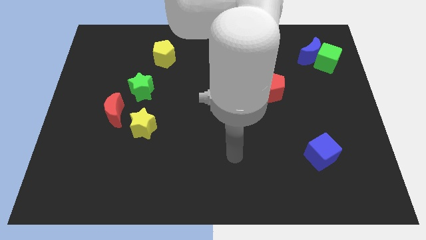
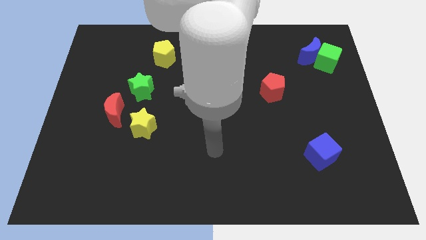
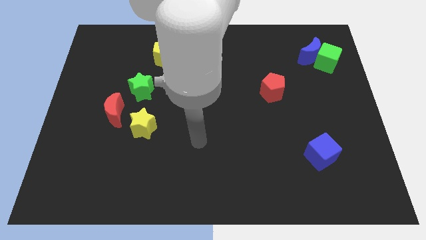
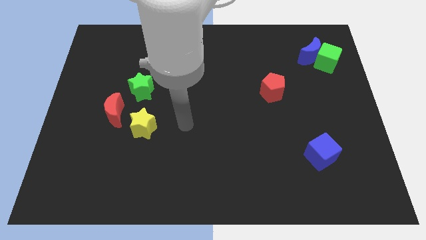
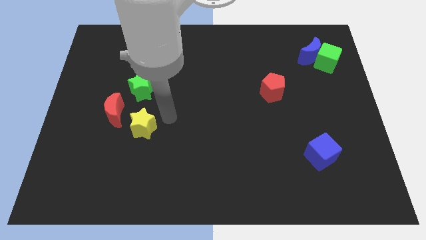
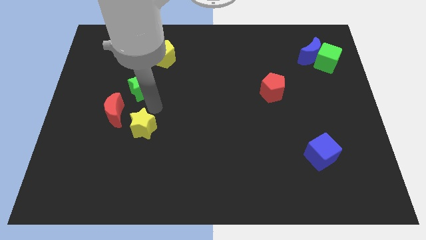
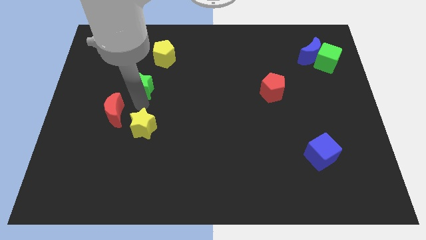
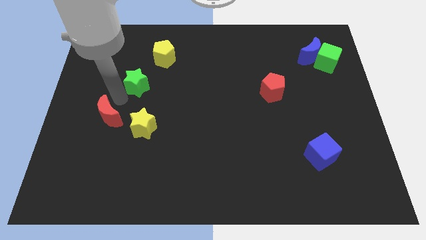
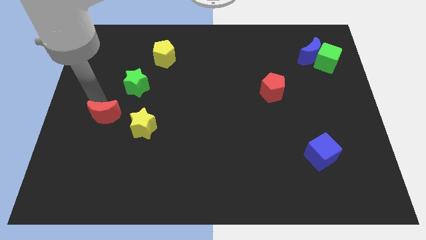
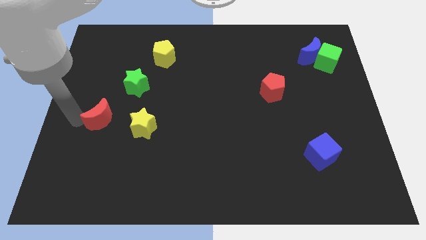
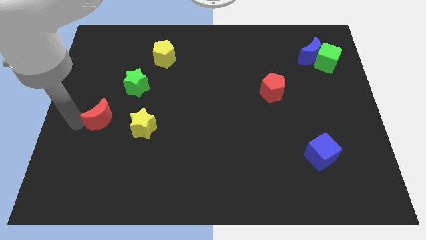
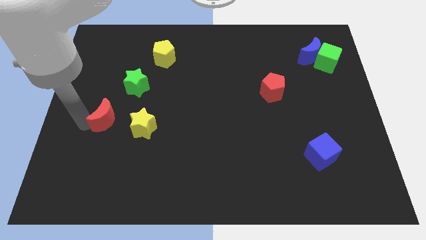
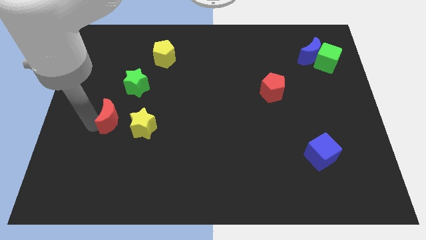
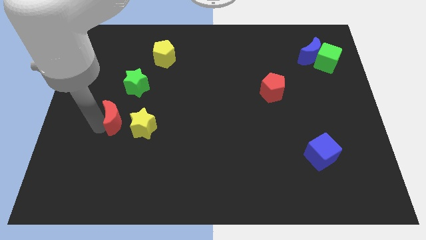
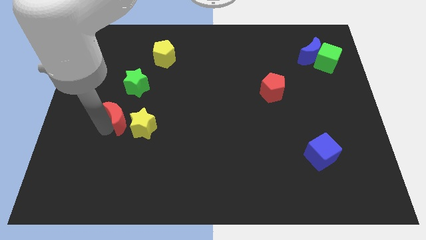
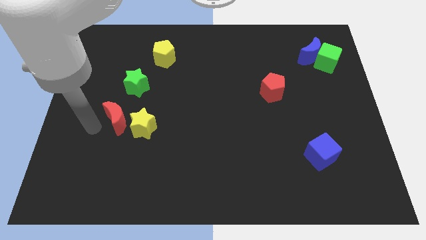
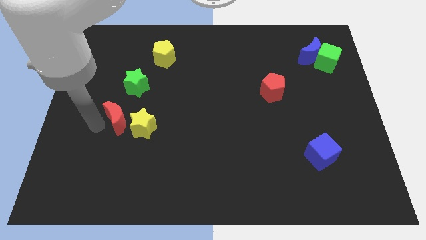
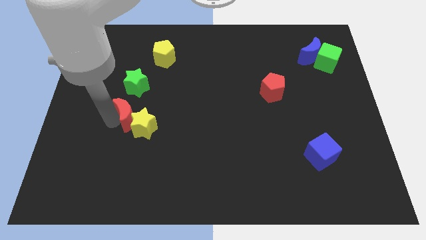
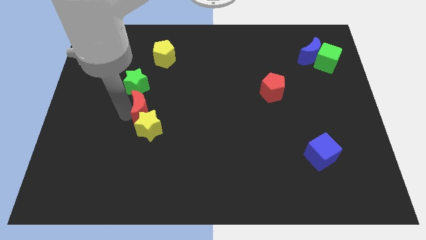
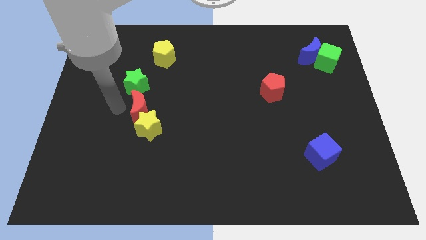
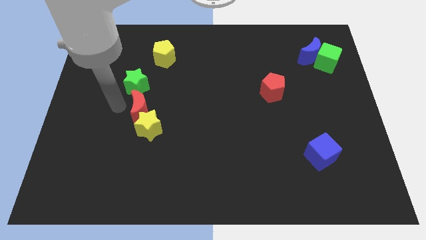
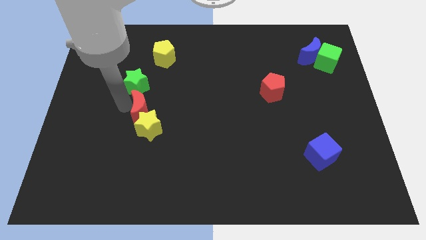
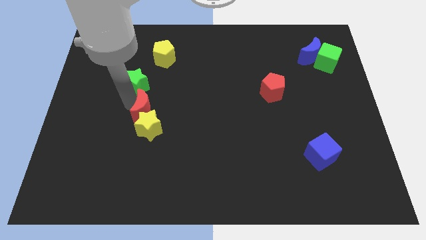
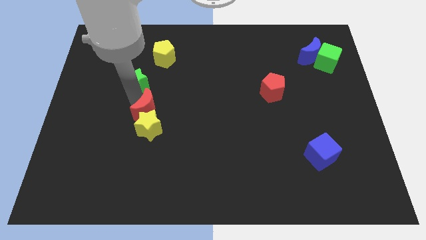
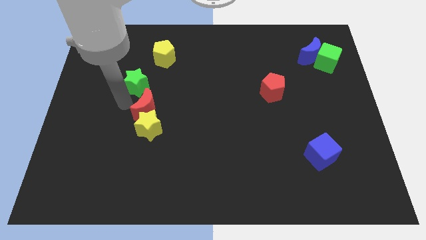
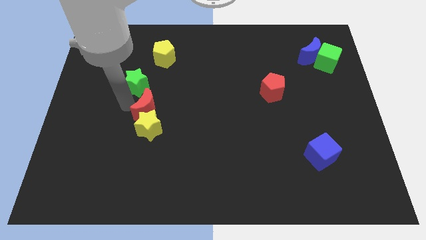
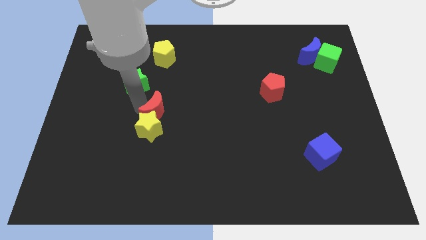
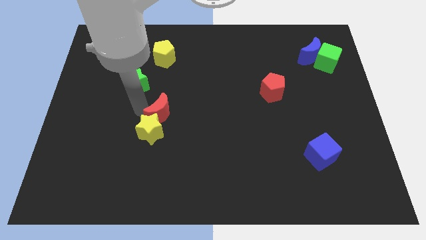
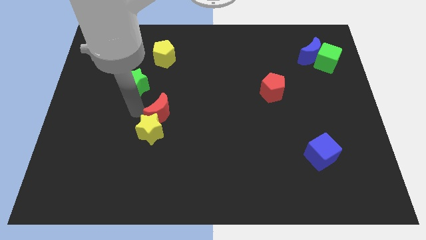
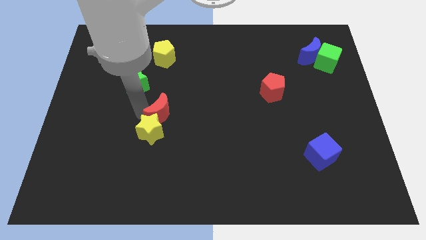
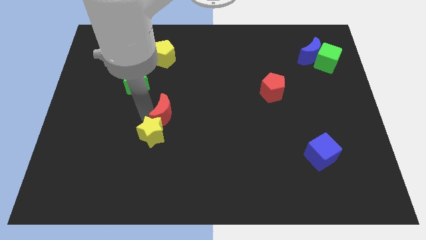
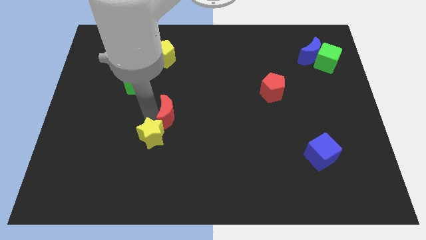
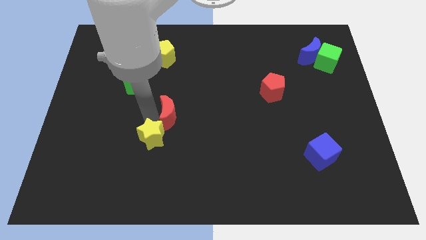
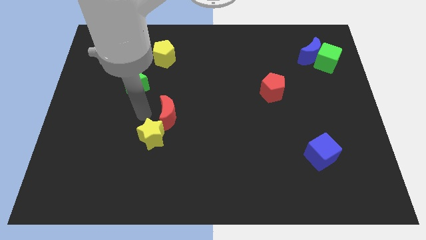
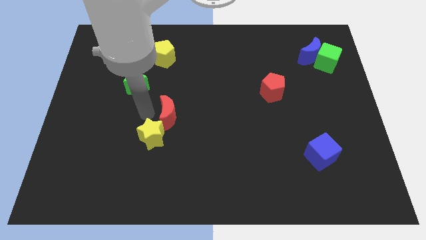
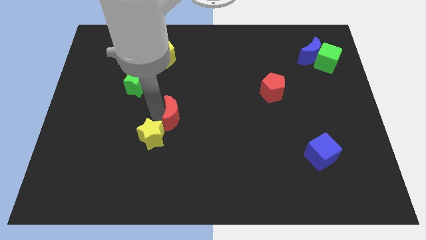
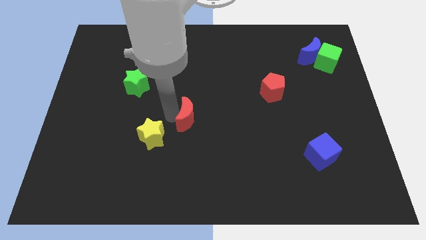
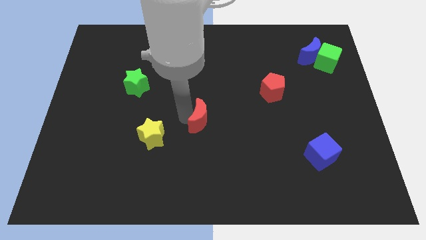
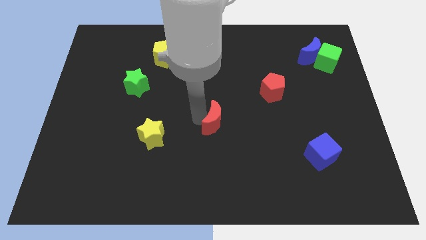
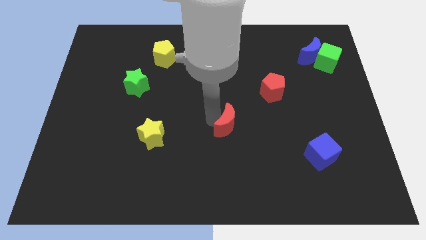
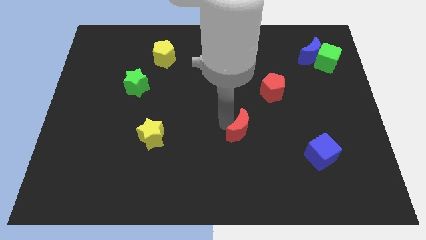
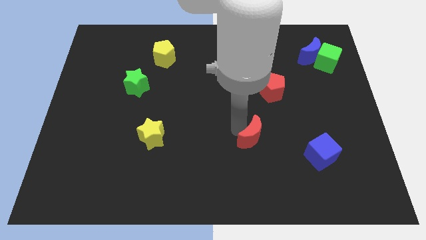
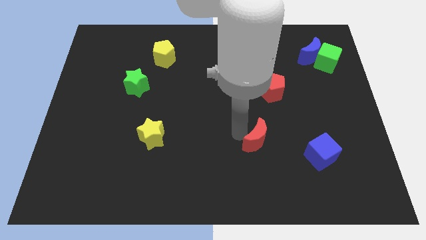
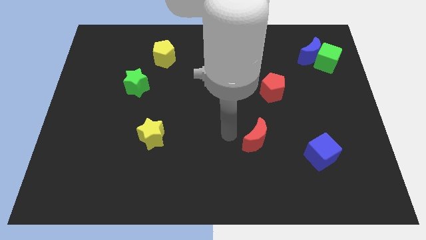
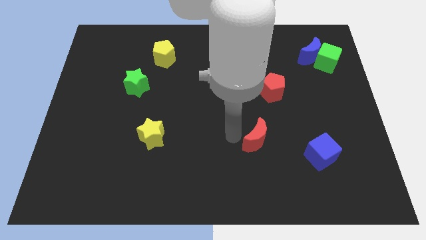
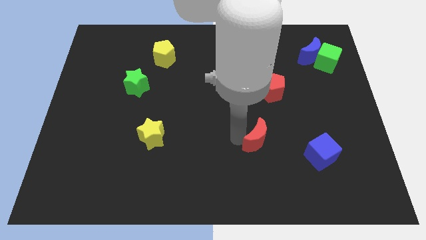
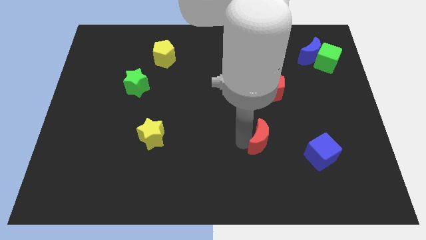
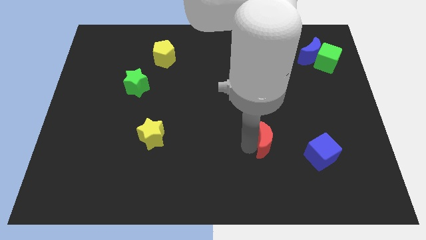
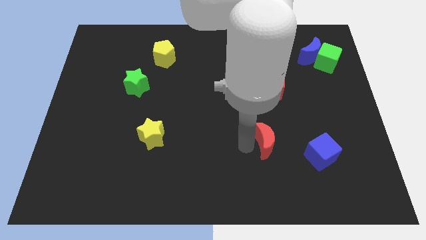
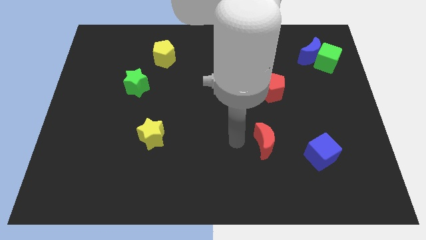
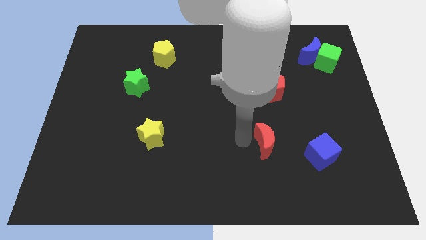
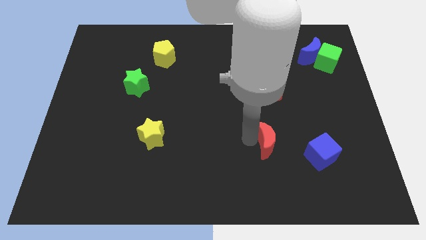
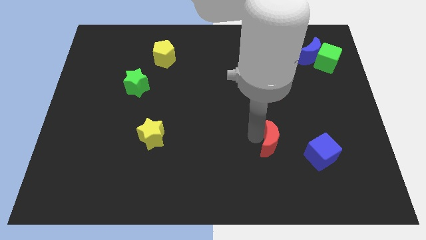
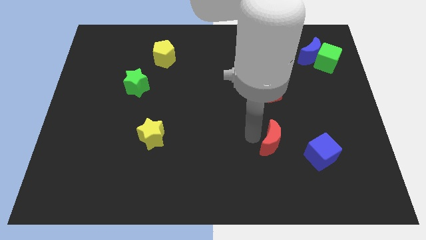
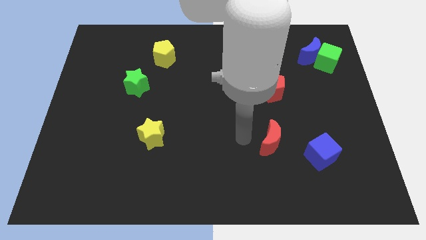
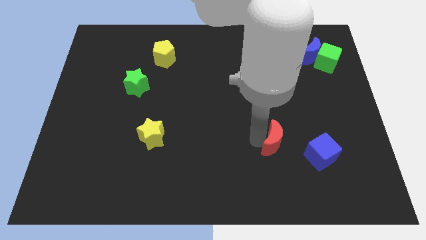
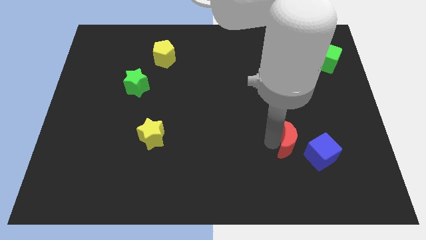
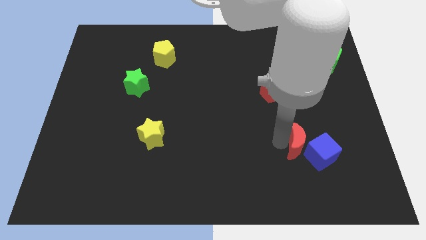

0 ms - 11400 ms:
push the red moon to the blue cube

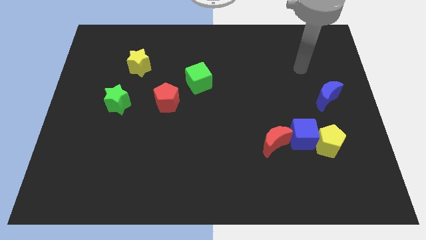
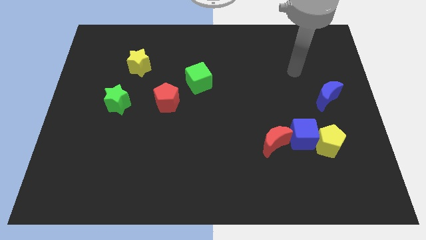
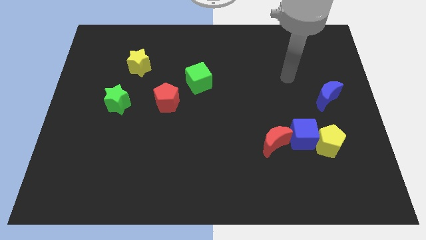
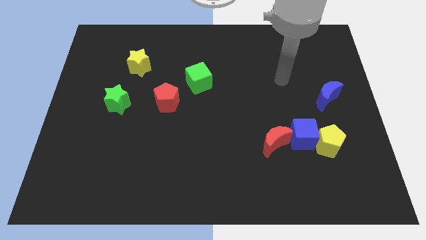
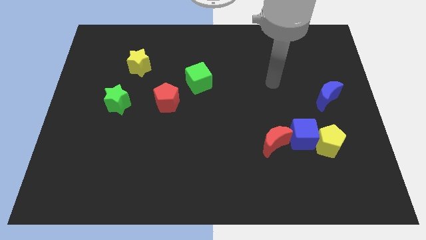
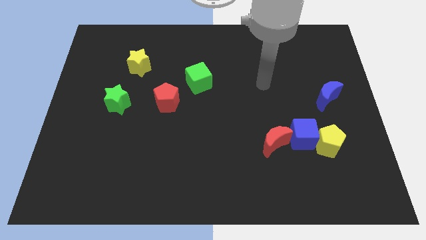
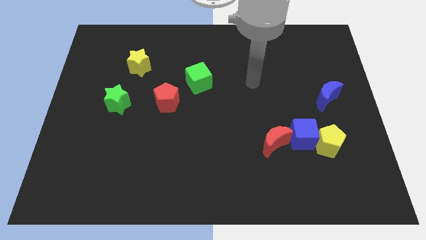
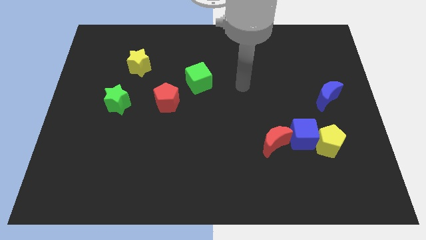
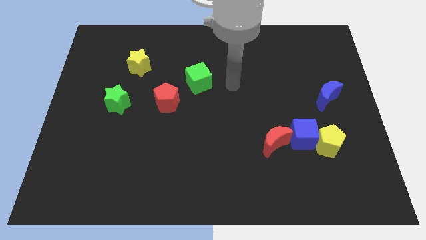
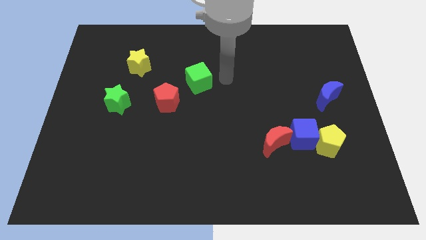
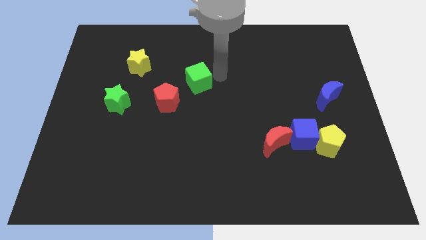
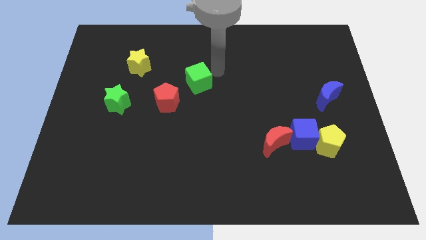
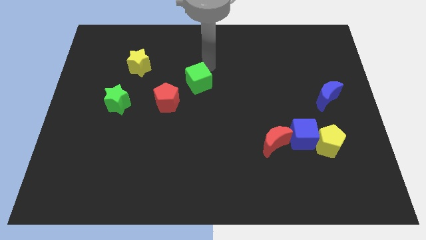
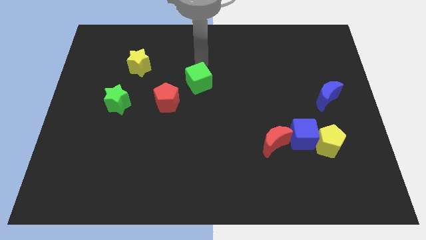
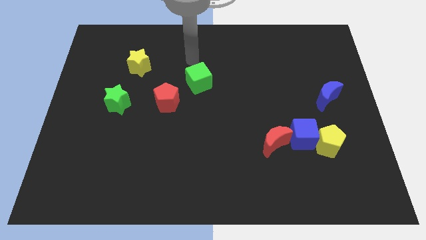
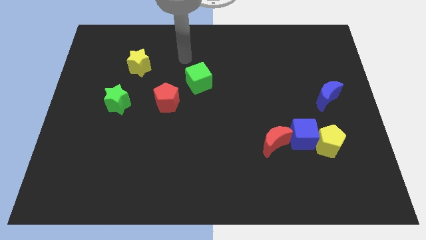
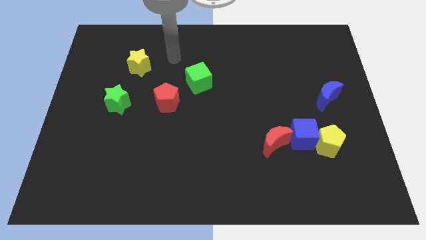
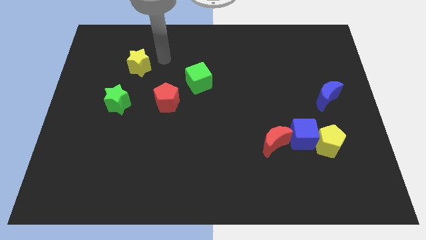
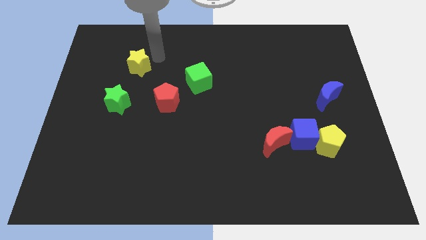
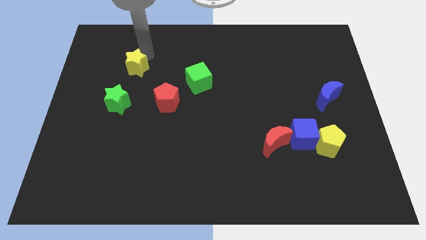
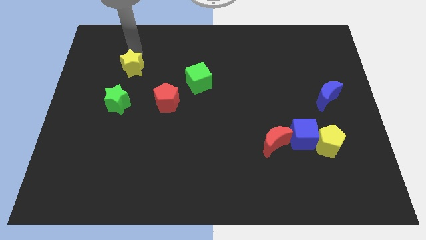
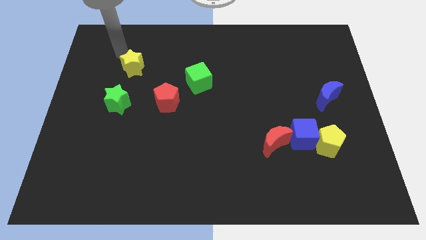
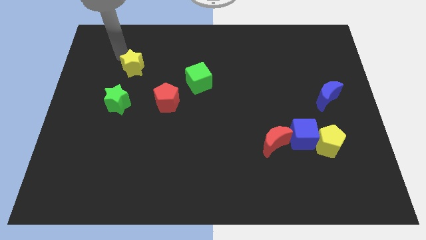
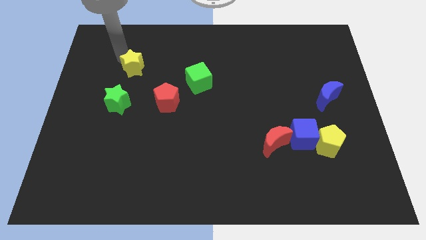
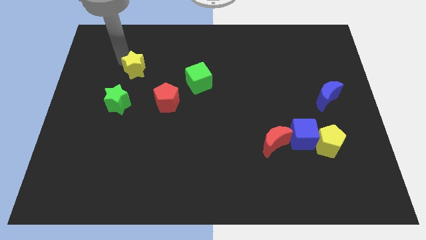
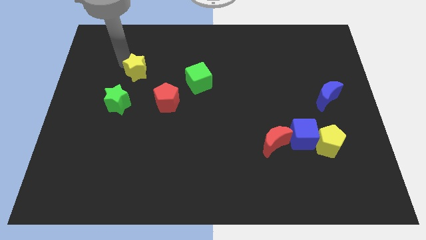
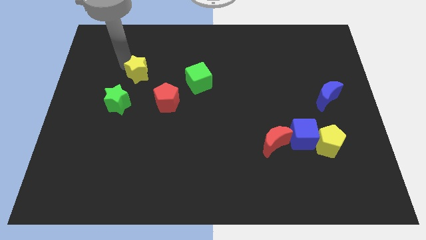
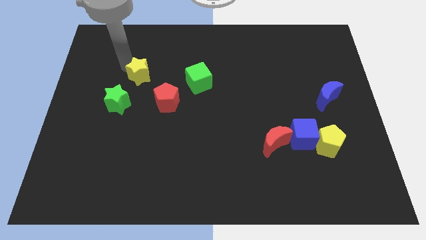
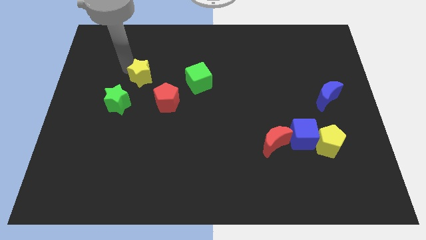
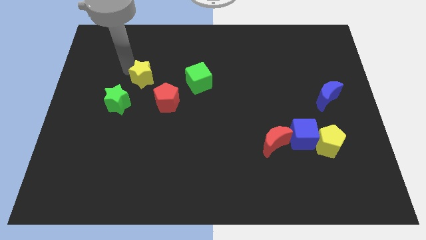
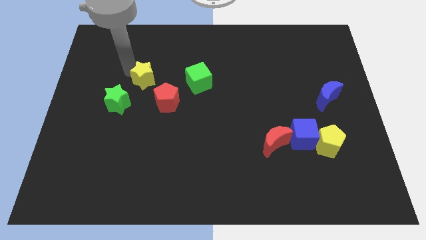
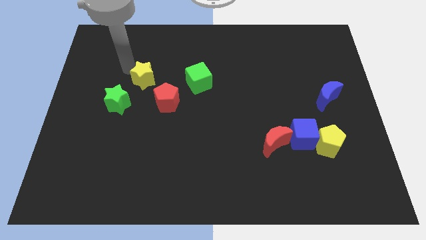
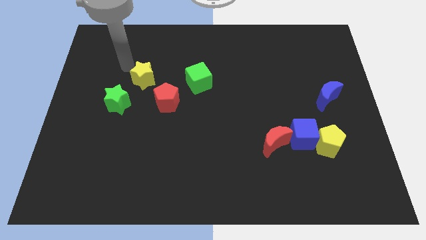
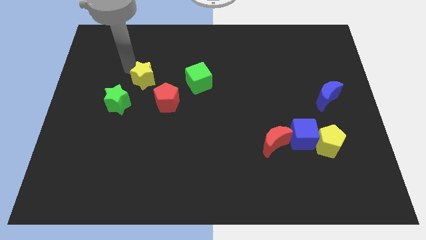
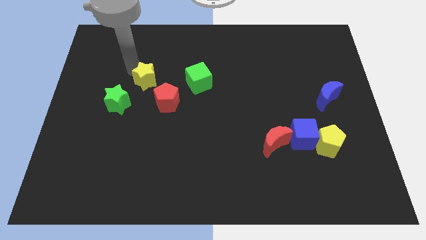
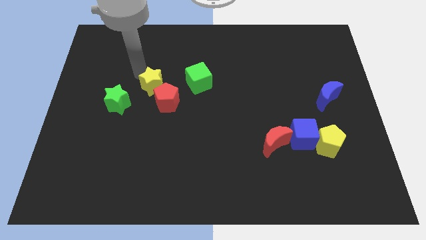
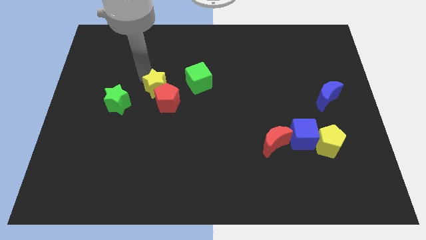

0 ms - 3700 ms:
slide the yellow star close to the red pentagon
